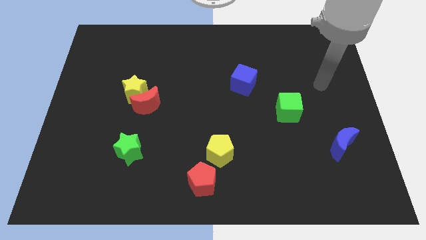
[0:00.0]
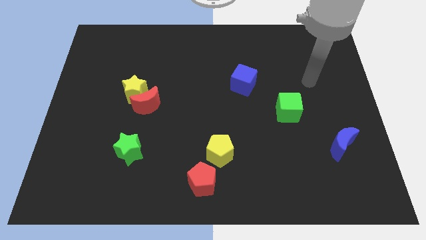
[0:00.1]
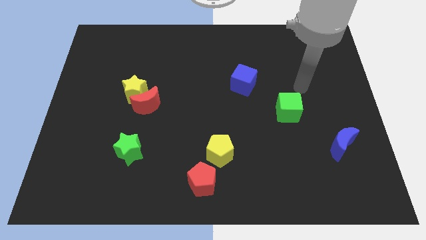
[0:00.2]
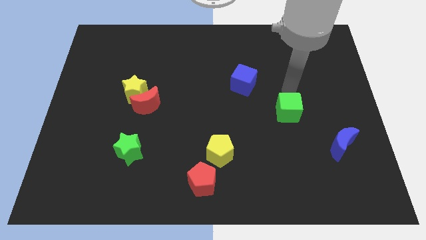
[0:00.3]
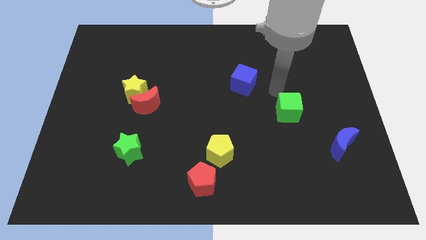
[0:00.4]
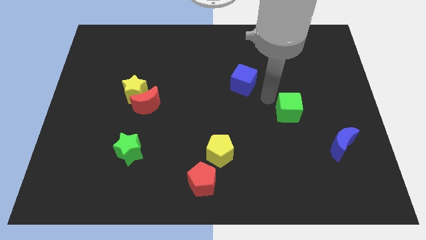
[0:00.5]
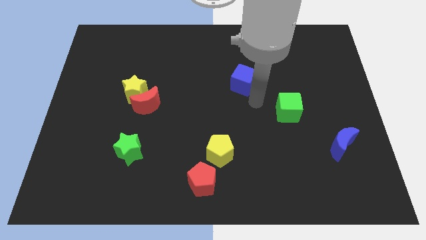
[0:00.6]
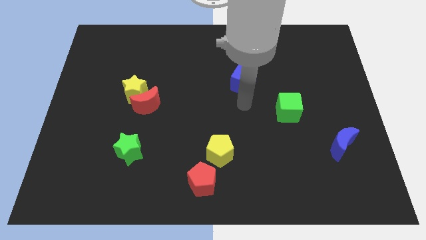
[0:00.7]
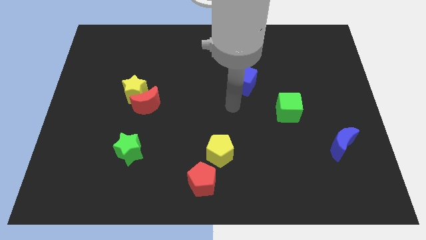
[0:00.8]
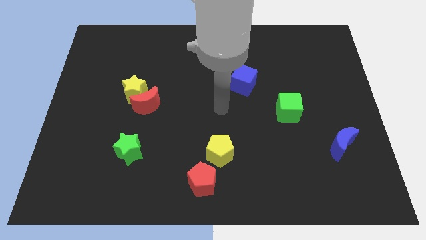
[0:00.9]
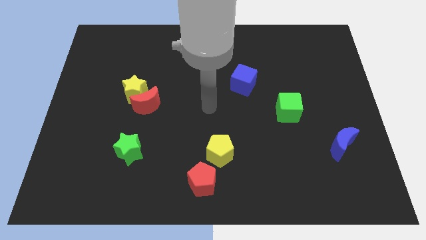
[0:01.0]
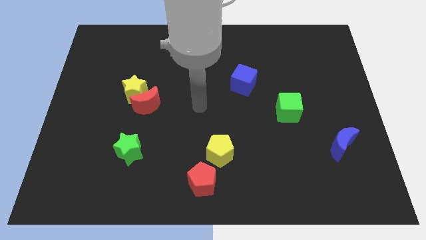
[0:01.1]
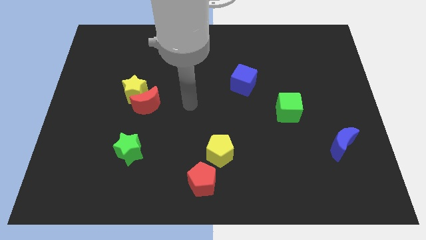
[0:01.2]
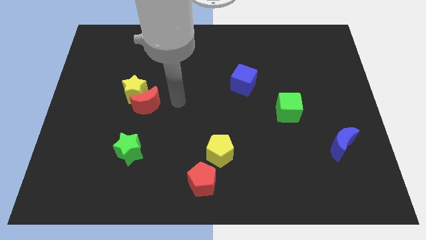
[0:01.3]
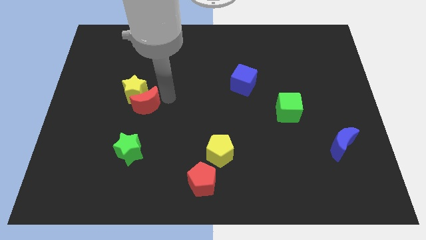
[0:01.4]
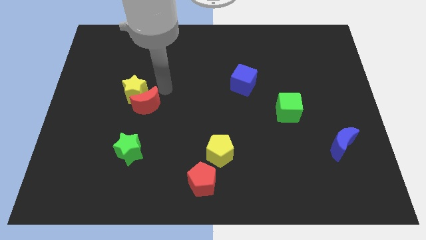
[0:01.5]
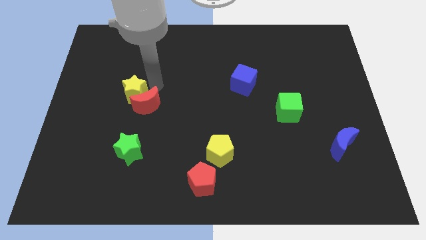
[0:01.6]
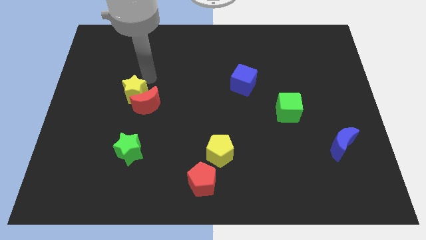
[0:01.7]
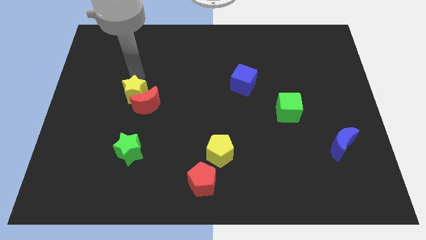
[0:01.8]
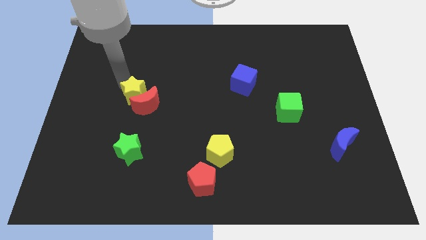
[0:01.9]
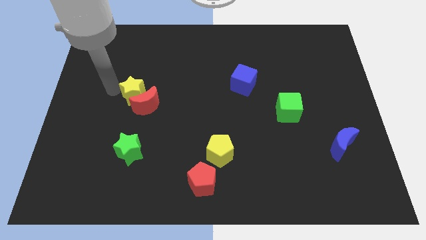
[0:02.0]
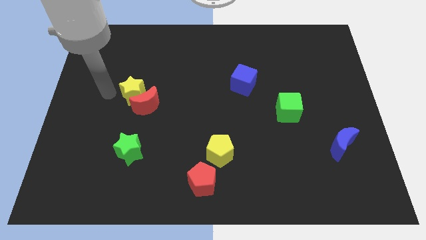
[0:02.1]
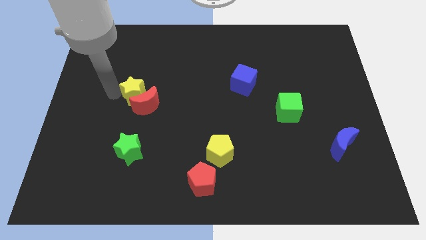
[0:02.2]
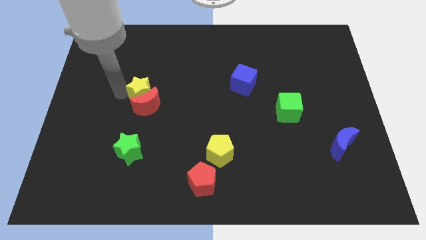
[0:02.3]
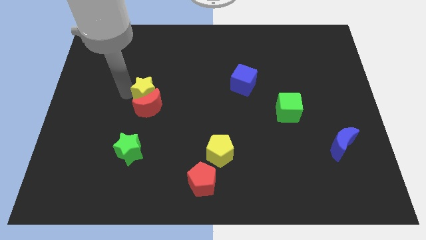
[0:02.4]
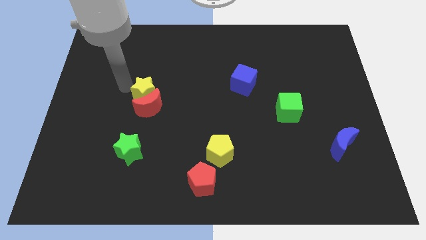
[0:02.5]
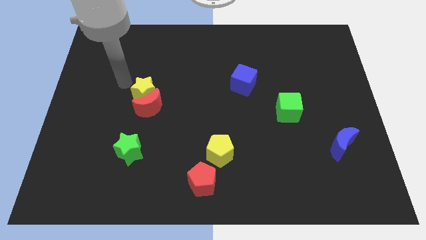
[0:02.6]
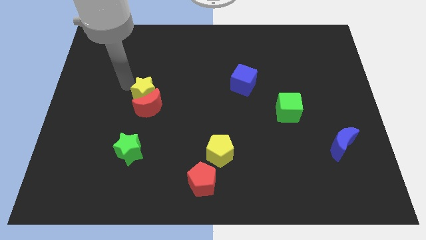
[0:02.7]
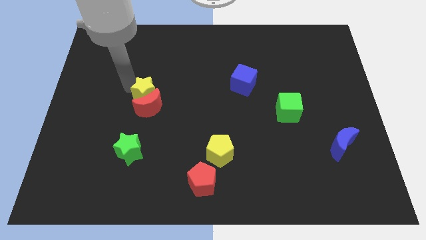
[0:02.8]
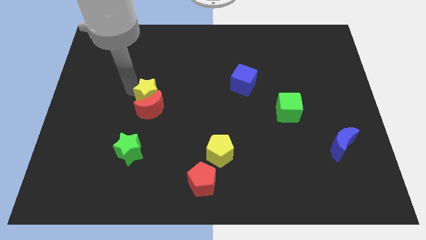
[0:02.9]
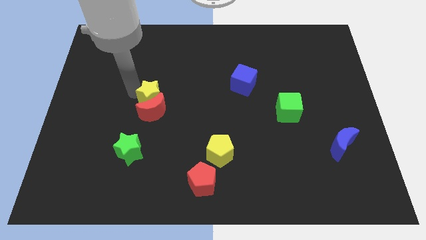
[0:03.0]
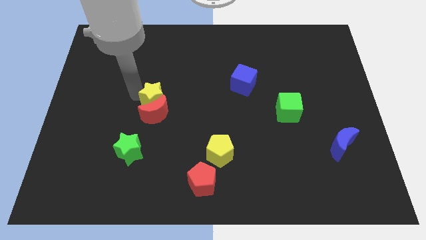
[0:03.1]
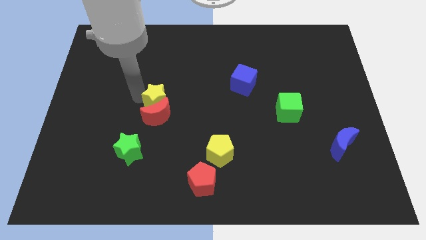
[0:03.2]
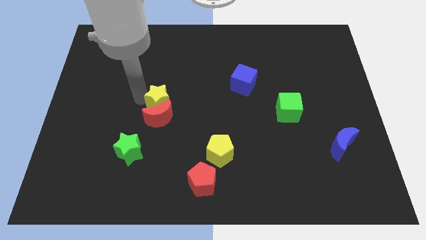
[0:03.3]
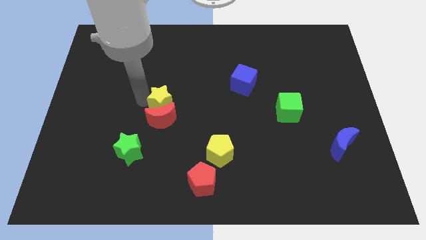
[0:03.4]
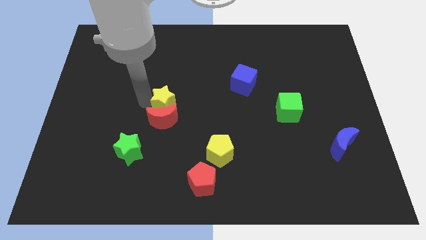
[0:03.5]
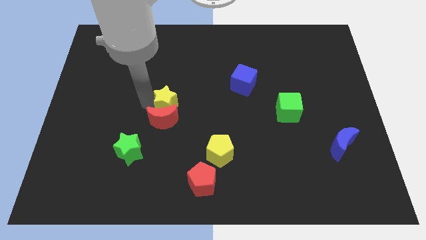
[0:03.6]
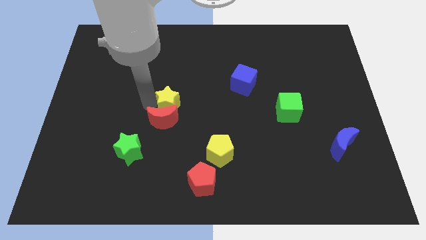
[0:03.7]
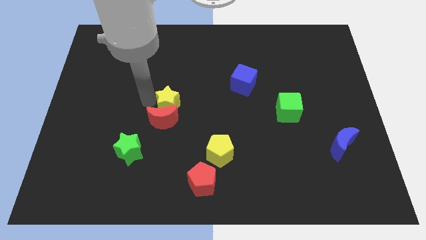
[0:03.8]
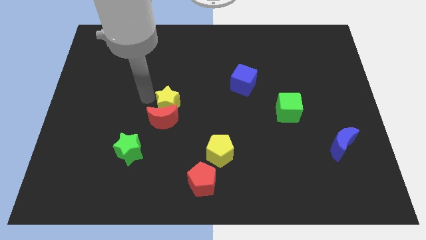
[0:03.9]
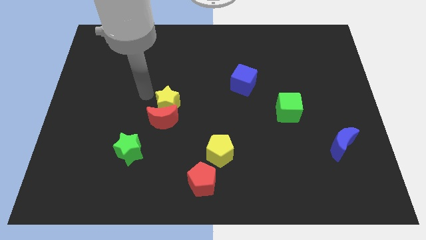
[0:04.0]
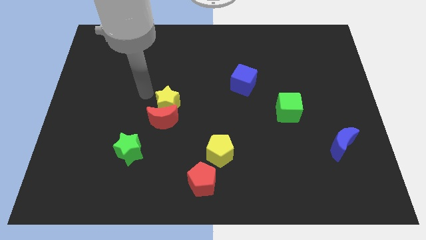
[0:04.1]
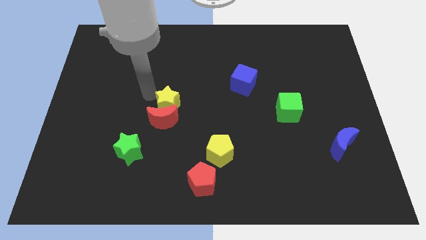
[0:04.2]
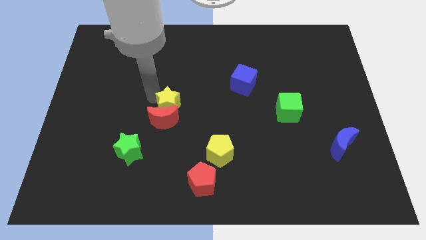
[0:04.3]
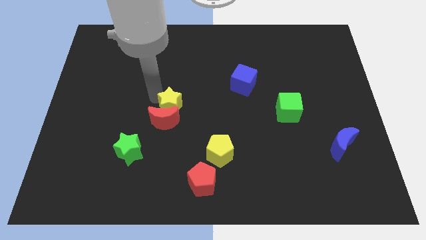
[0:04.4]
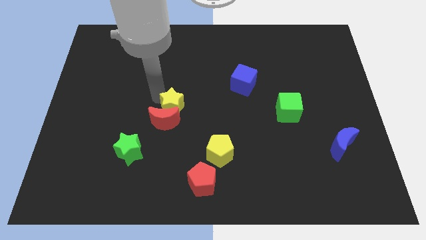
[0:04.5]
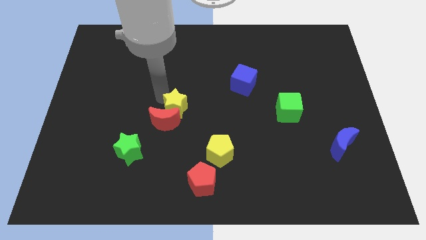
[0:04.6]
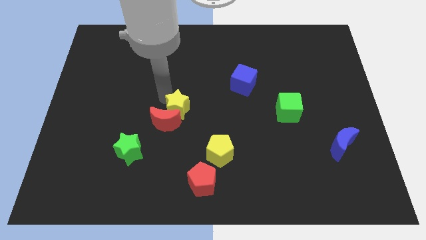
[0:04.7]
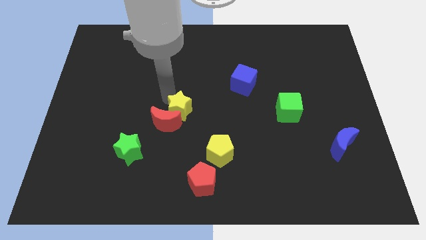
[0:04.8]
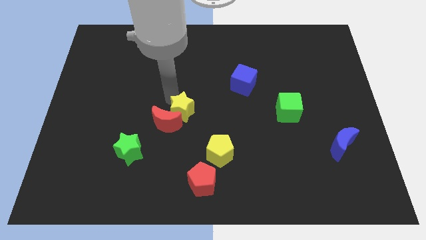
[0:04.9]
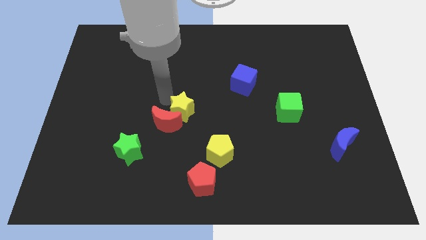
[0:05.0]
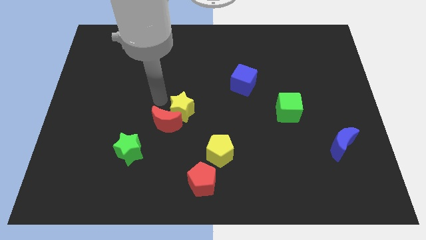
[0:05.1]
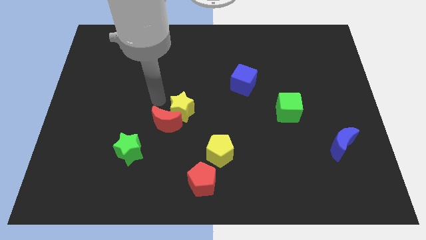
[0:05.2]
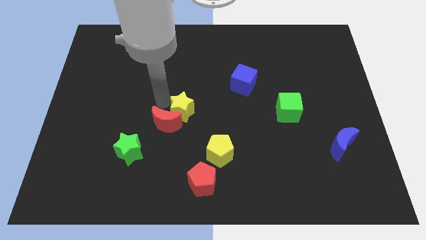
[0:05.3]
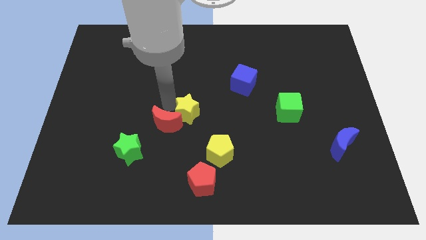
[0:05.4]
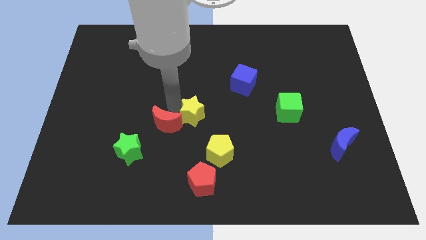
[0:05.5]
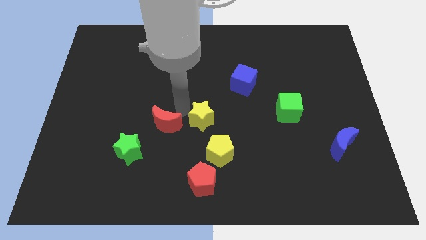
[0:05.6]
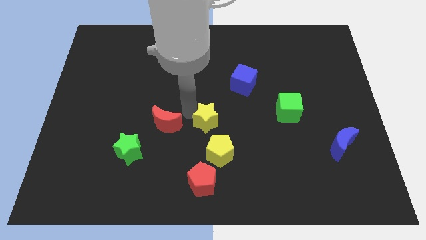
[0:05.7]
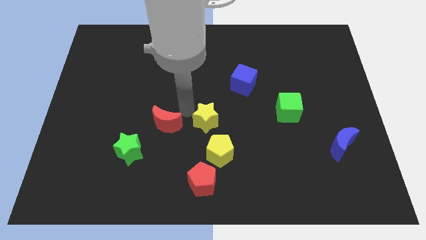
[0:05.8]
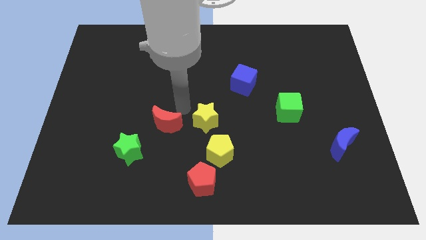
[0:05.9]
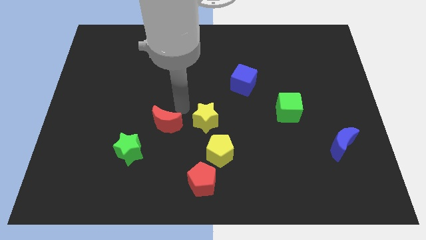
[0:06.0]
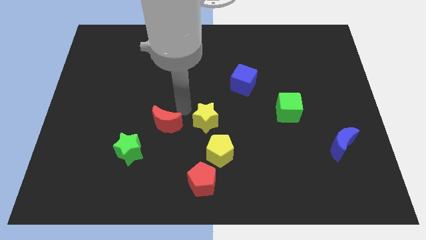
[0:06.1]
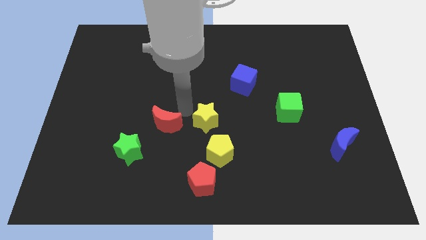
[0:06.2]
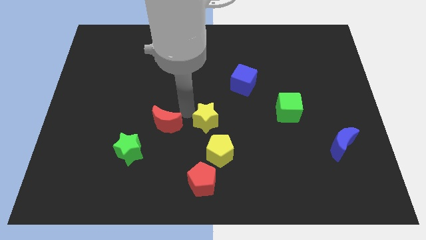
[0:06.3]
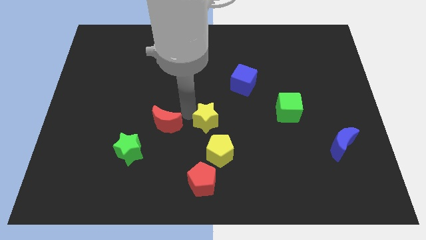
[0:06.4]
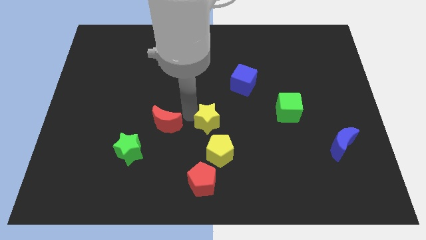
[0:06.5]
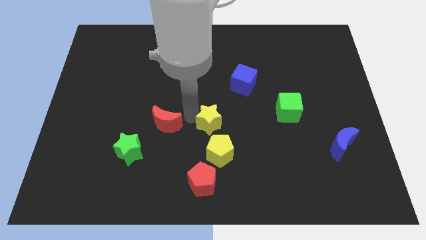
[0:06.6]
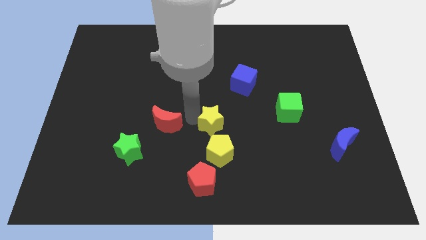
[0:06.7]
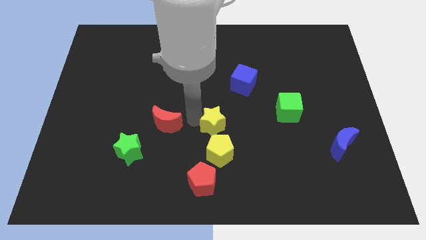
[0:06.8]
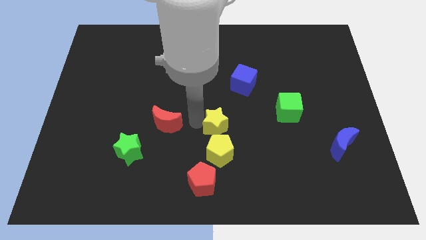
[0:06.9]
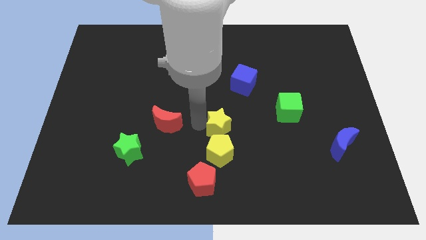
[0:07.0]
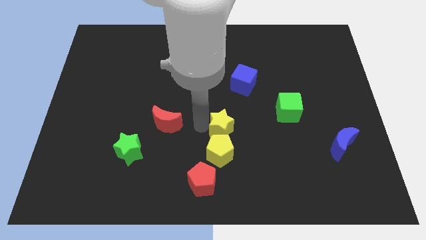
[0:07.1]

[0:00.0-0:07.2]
move the yellow star downwards and right
